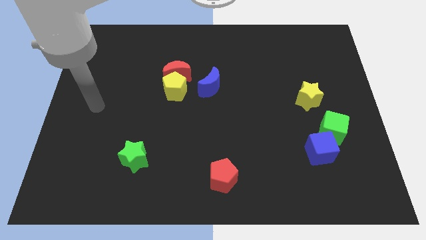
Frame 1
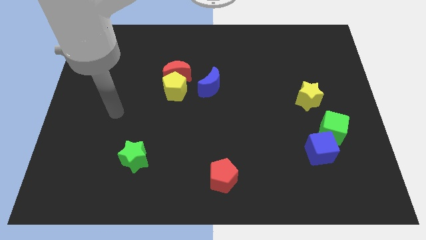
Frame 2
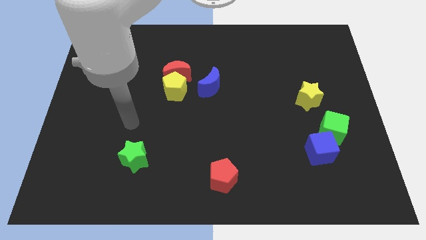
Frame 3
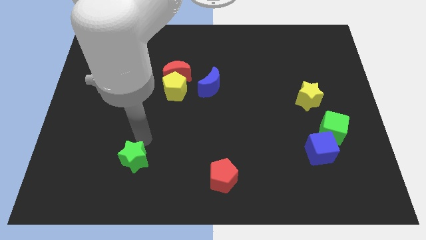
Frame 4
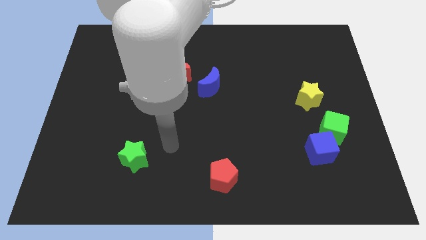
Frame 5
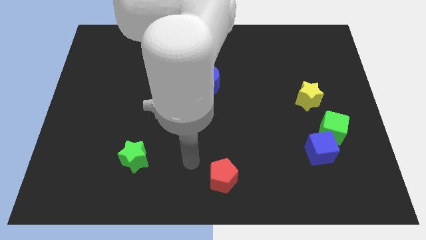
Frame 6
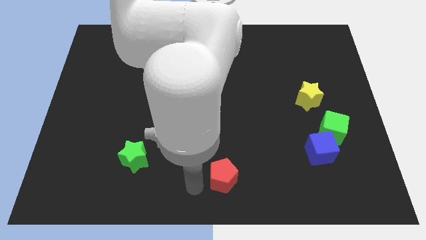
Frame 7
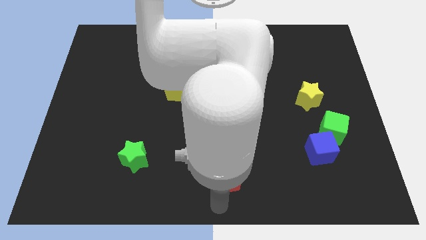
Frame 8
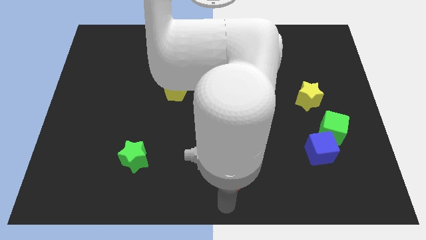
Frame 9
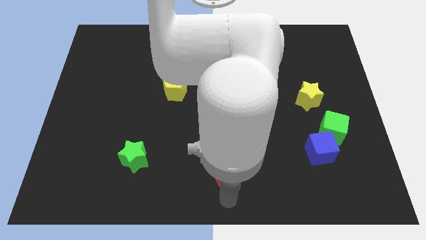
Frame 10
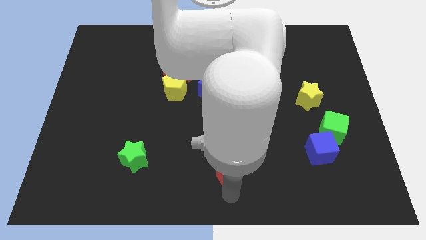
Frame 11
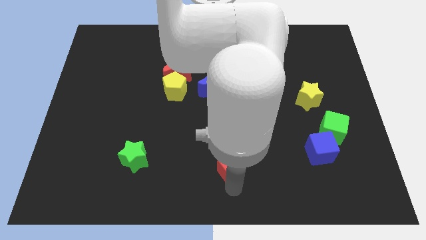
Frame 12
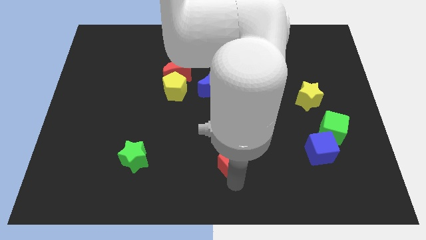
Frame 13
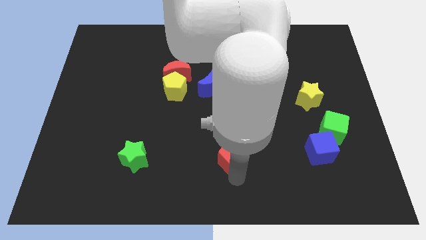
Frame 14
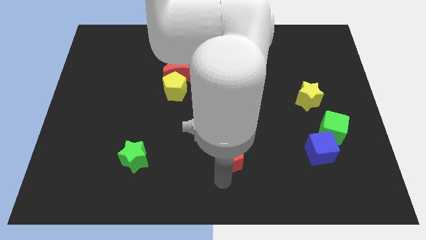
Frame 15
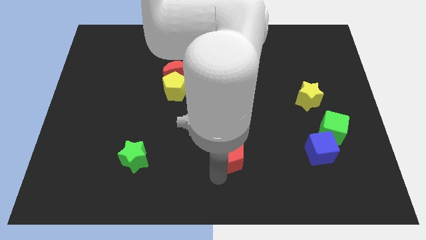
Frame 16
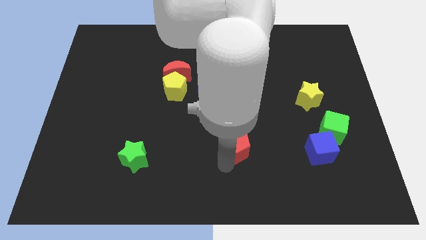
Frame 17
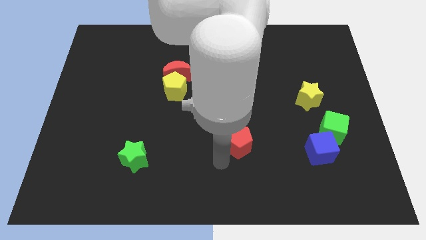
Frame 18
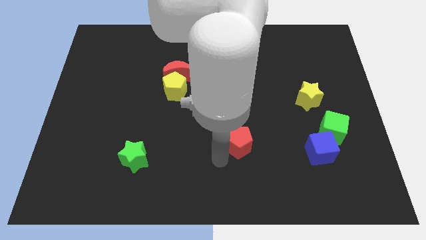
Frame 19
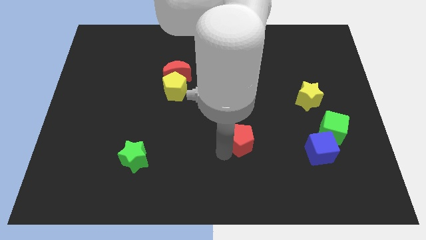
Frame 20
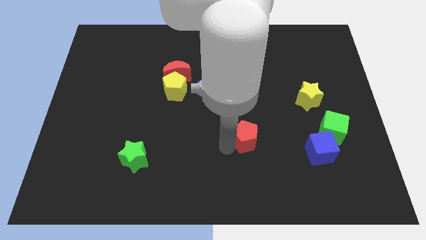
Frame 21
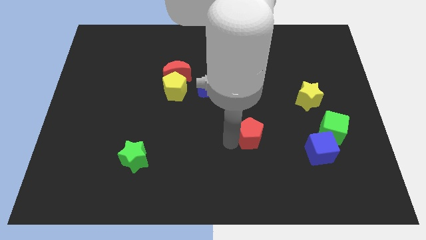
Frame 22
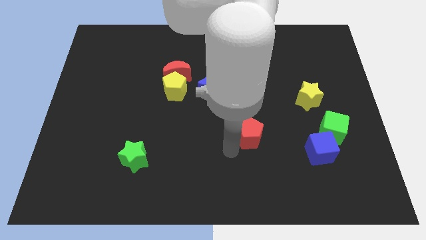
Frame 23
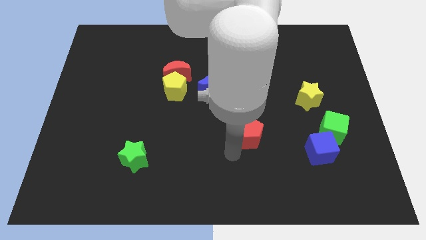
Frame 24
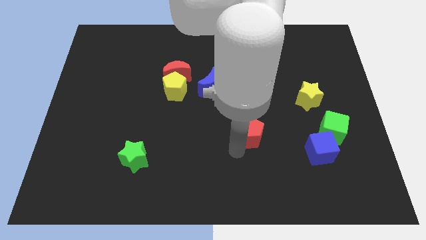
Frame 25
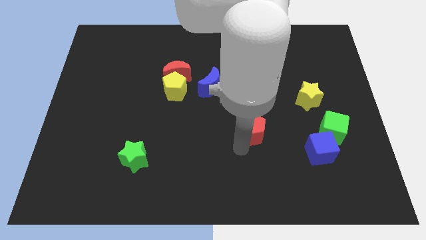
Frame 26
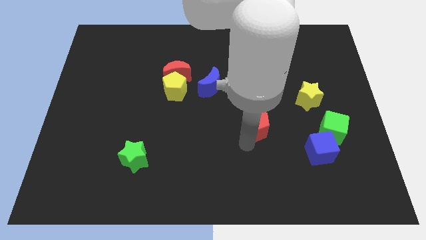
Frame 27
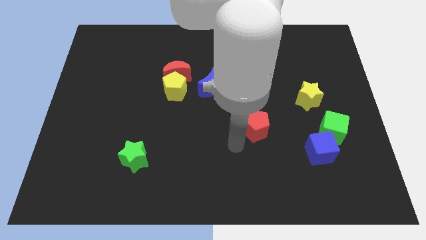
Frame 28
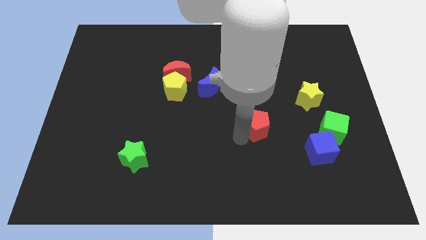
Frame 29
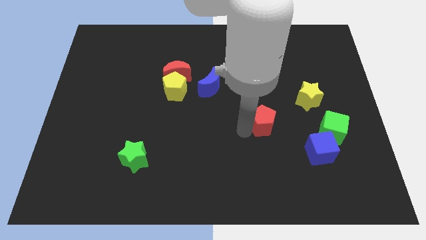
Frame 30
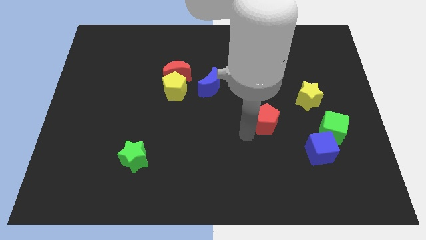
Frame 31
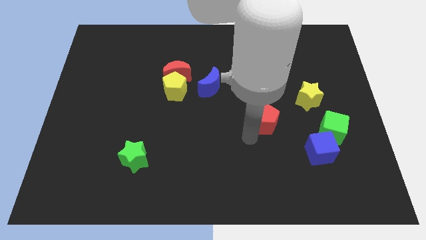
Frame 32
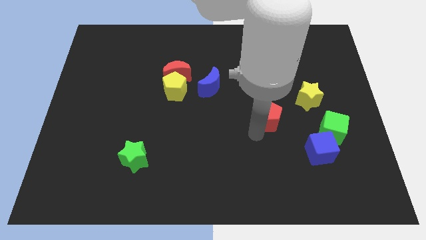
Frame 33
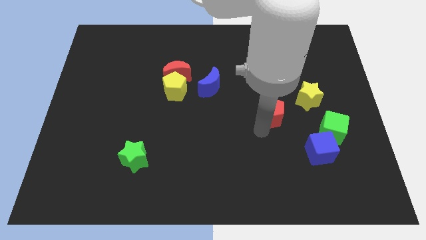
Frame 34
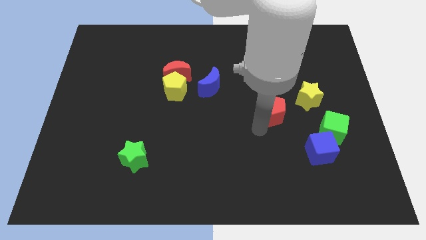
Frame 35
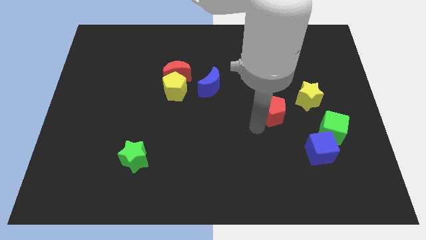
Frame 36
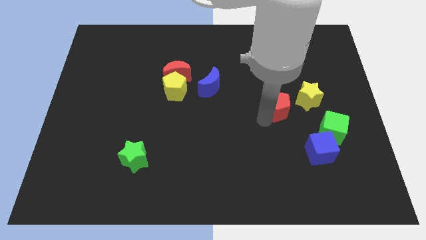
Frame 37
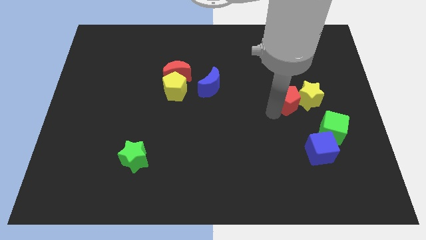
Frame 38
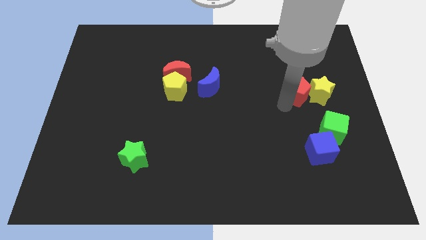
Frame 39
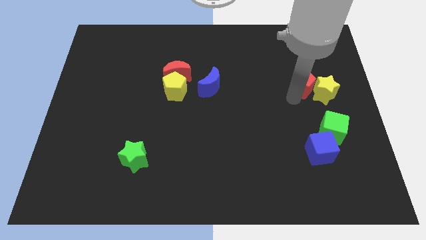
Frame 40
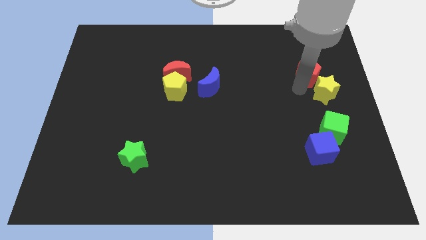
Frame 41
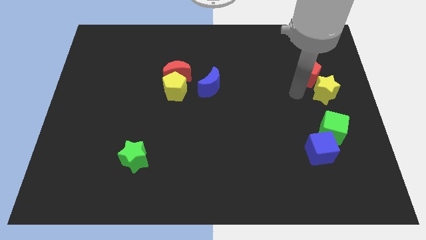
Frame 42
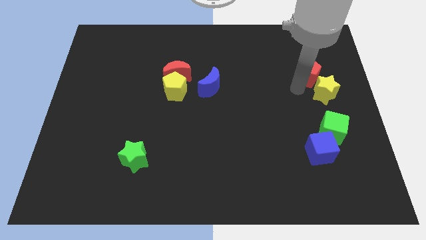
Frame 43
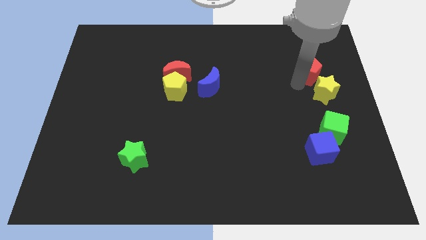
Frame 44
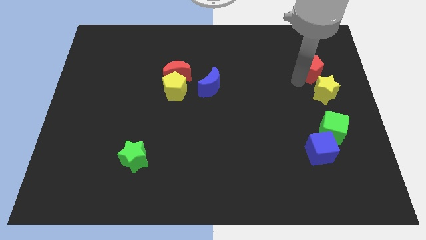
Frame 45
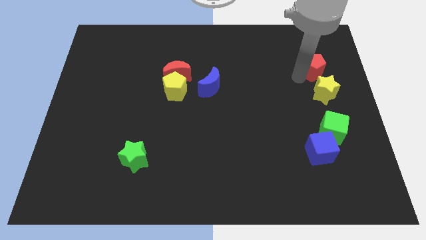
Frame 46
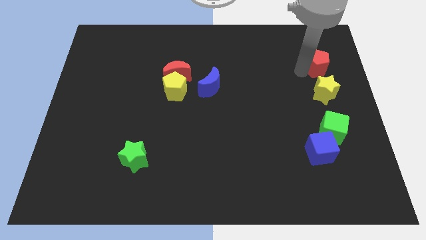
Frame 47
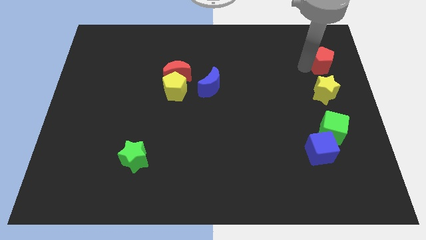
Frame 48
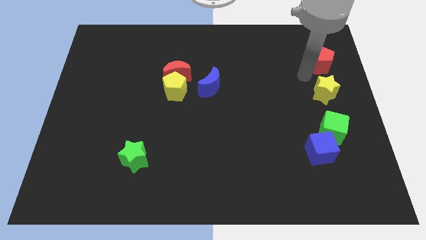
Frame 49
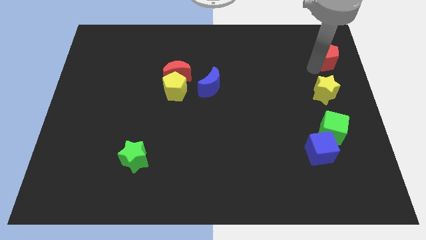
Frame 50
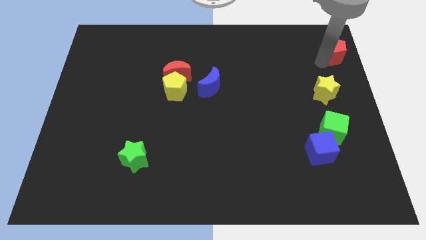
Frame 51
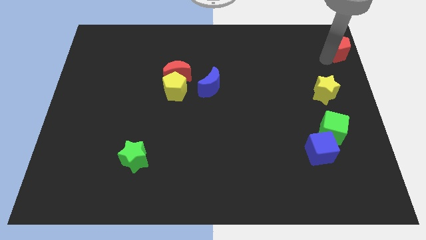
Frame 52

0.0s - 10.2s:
move the red pentagon to the upper right corner

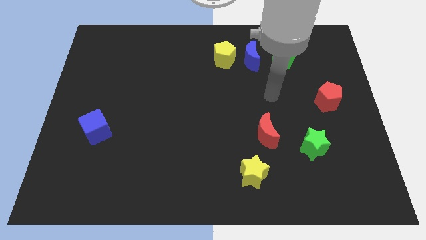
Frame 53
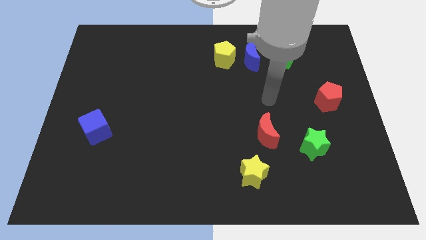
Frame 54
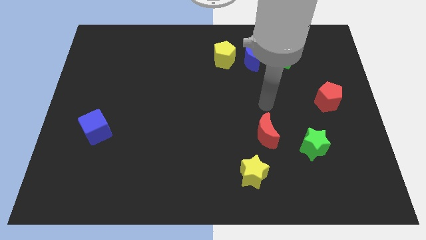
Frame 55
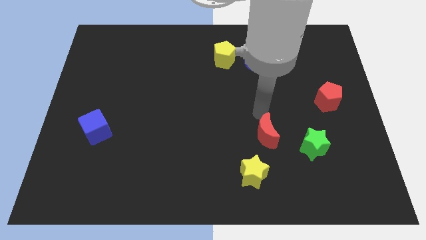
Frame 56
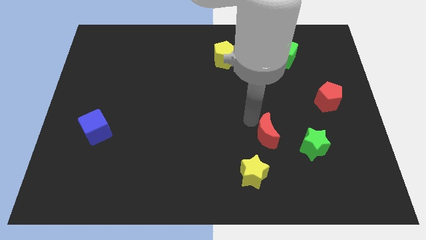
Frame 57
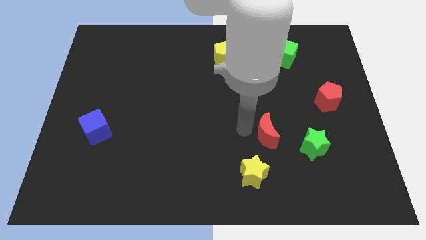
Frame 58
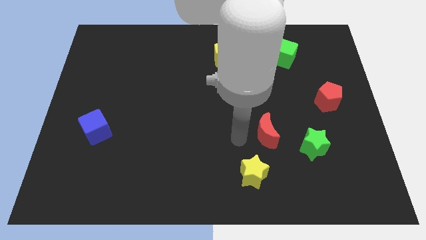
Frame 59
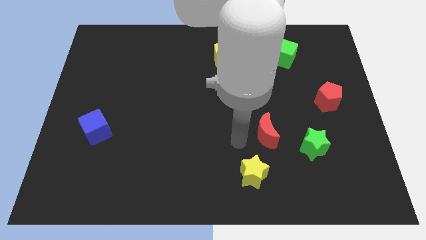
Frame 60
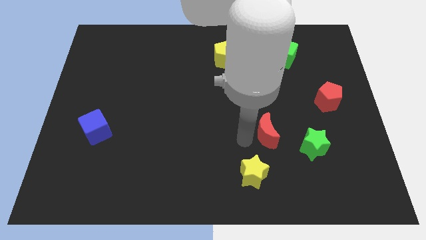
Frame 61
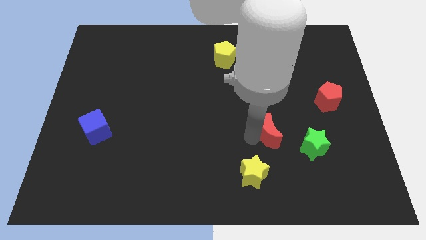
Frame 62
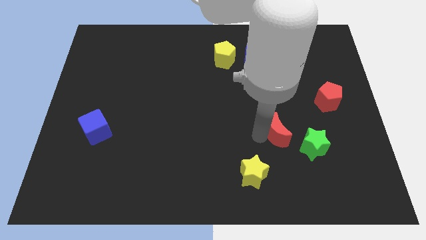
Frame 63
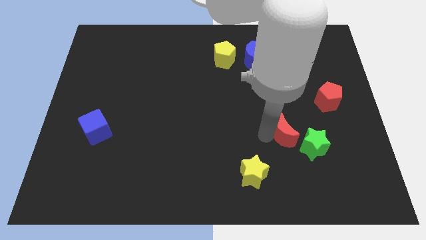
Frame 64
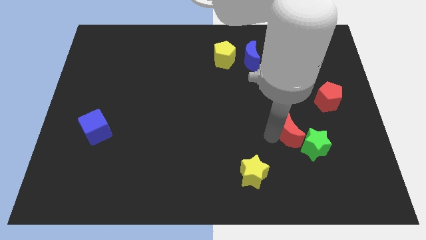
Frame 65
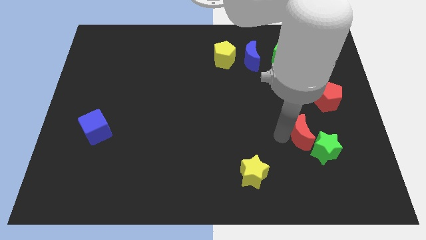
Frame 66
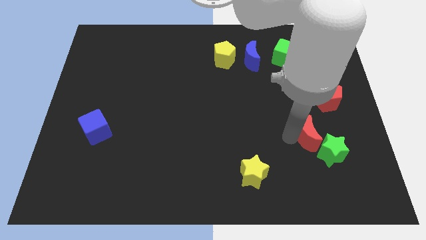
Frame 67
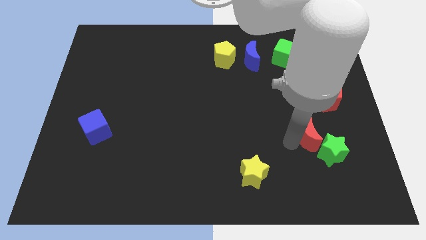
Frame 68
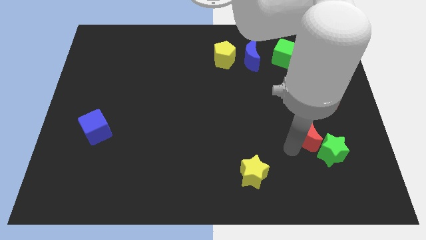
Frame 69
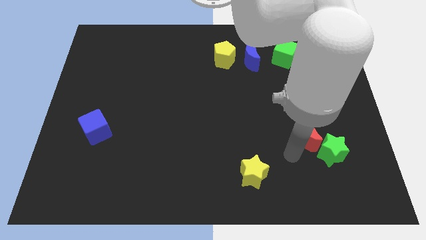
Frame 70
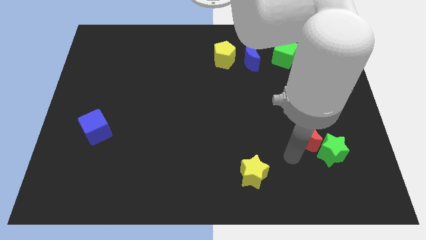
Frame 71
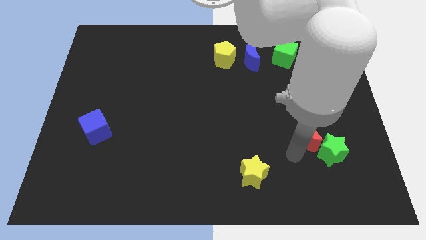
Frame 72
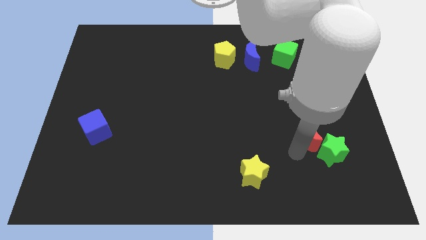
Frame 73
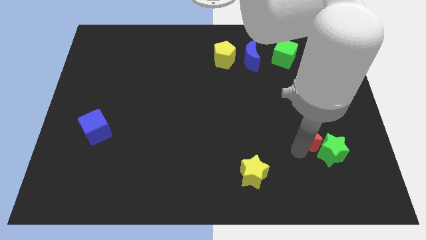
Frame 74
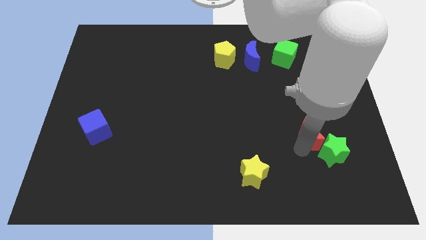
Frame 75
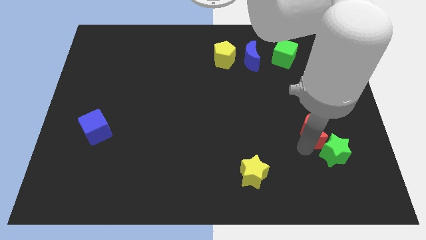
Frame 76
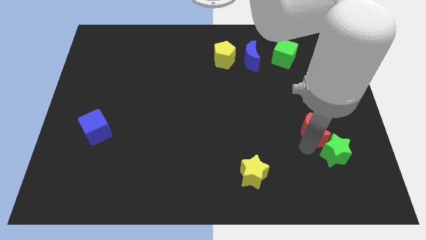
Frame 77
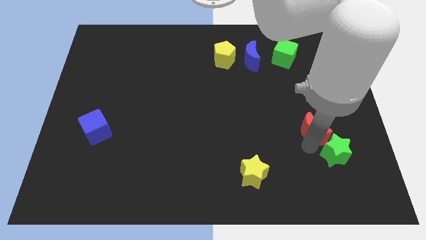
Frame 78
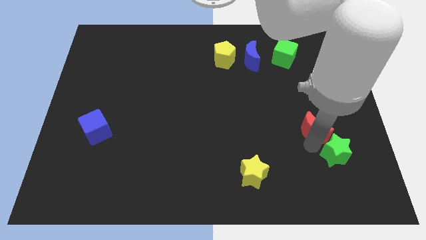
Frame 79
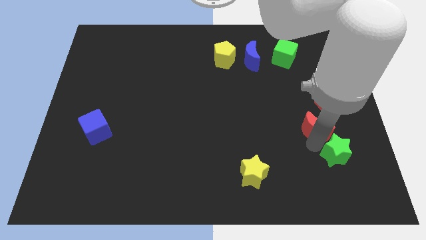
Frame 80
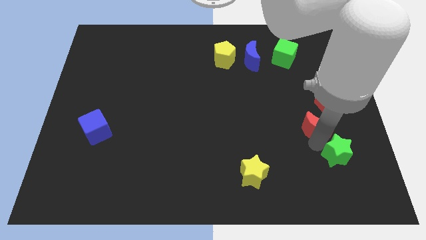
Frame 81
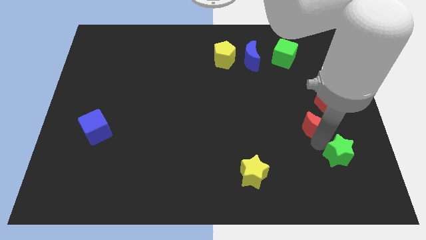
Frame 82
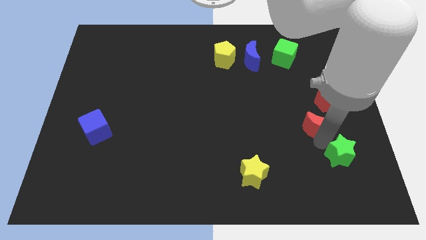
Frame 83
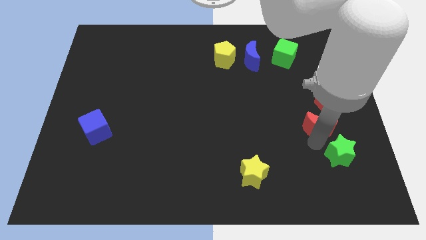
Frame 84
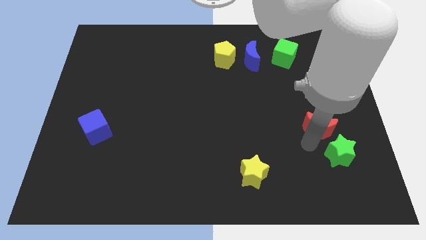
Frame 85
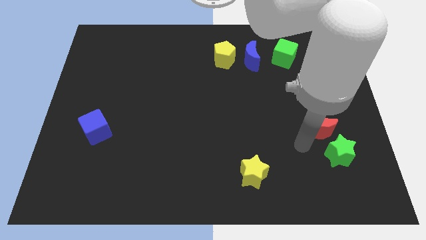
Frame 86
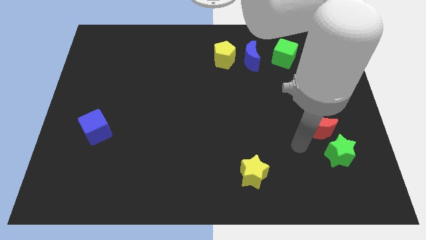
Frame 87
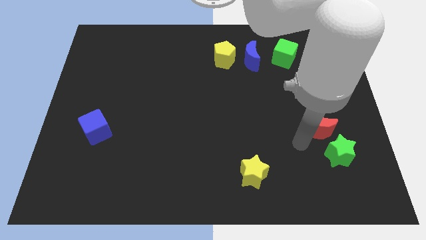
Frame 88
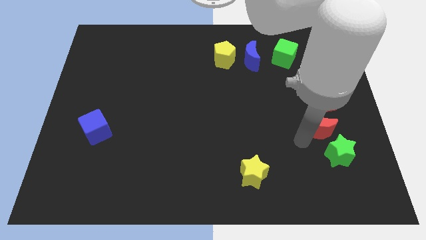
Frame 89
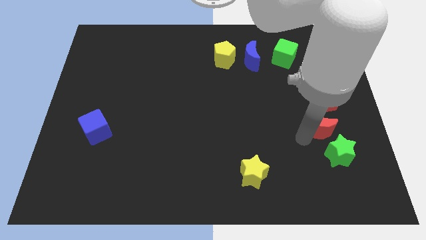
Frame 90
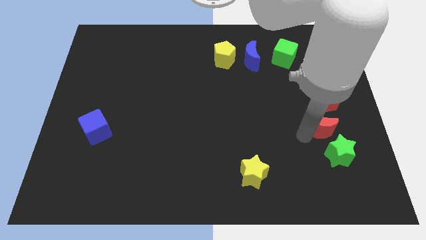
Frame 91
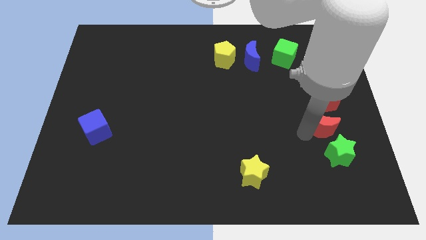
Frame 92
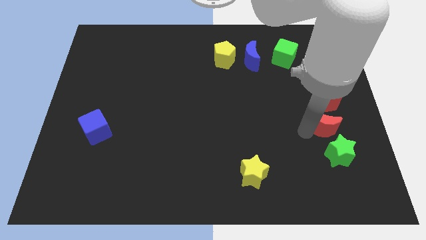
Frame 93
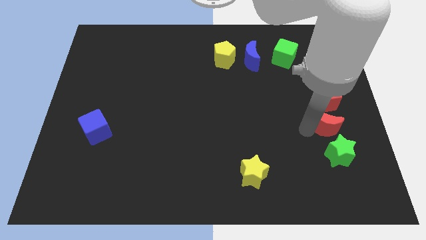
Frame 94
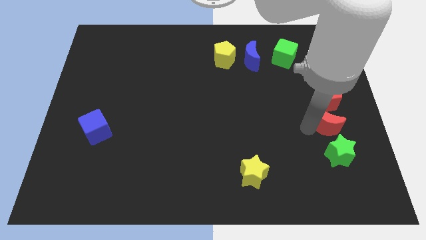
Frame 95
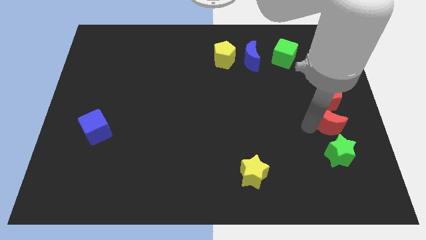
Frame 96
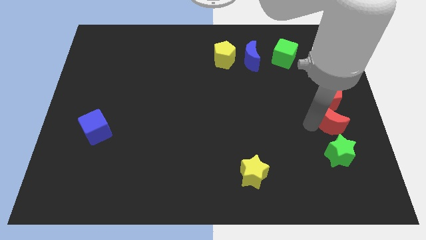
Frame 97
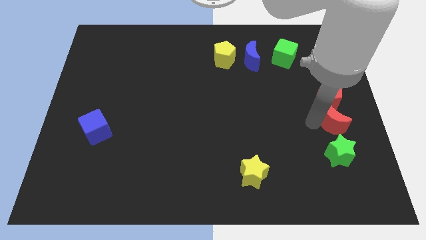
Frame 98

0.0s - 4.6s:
put the red moon to the right side of the board
